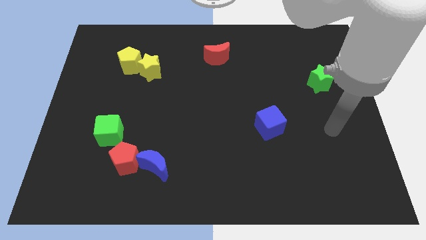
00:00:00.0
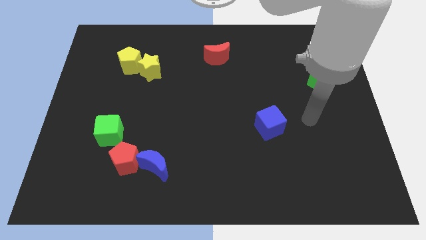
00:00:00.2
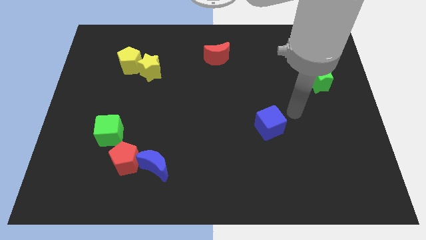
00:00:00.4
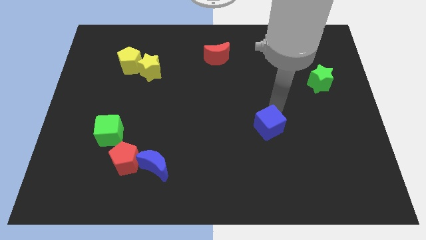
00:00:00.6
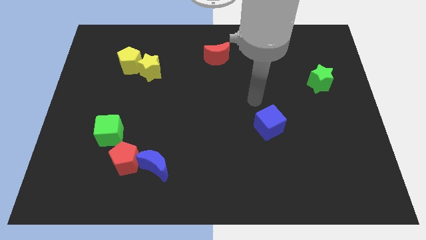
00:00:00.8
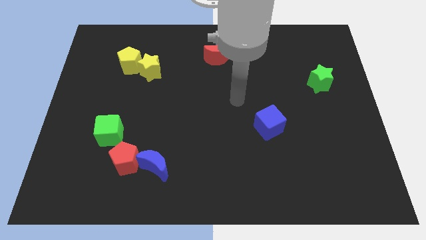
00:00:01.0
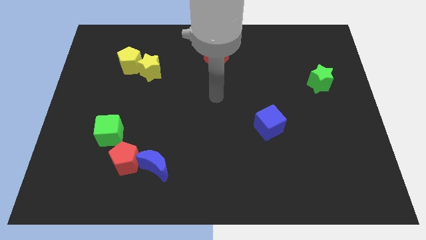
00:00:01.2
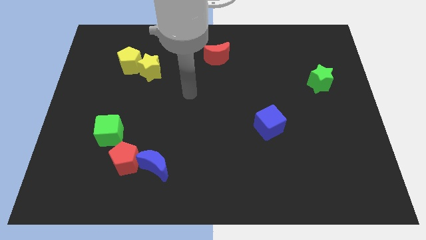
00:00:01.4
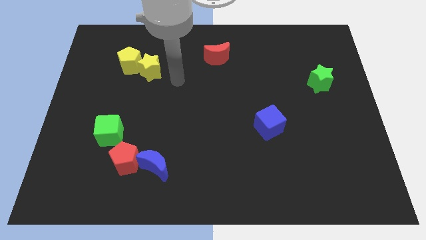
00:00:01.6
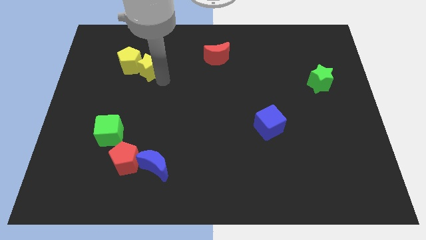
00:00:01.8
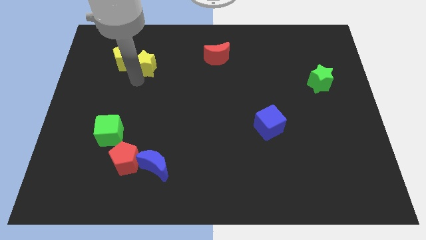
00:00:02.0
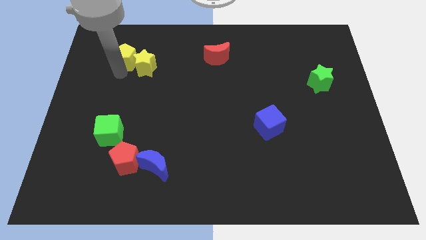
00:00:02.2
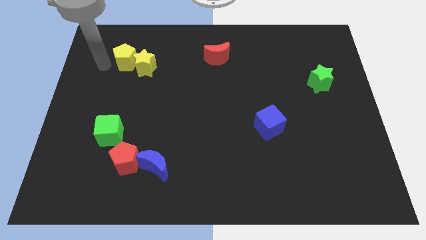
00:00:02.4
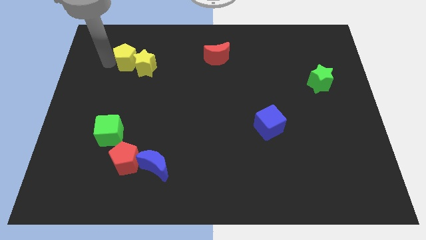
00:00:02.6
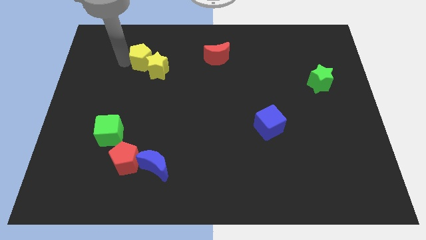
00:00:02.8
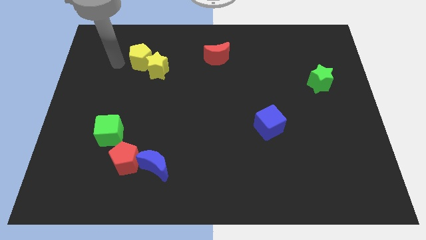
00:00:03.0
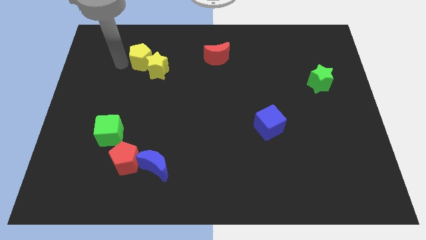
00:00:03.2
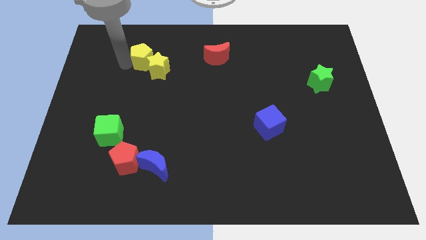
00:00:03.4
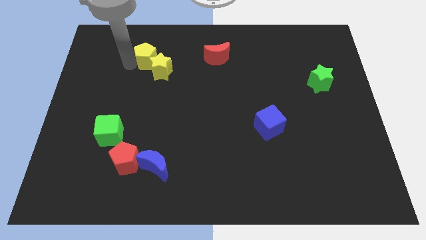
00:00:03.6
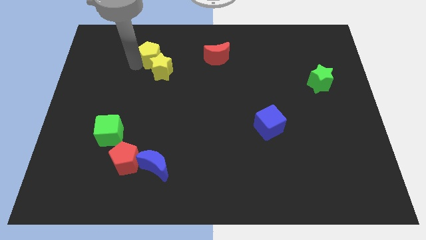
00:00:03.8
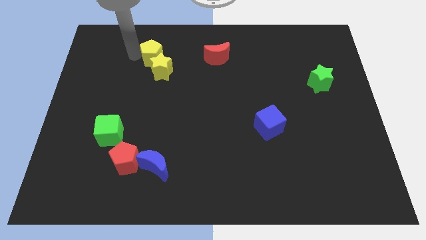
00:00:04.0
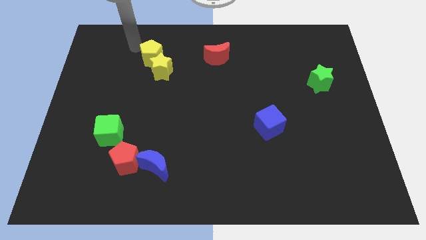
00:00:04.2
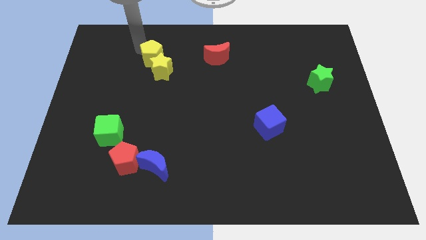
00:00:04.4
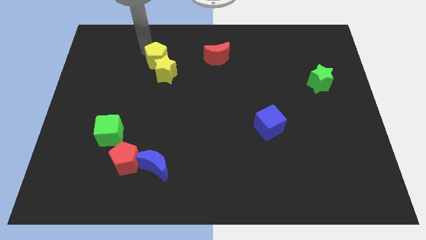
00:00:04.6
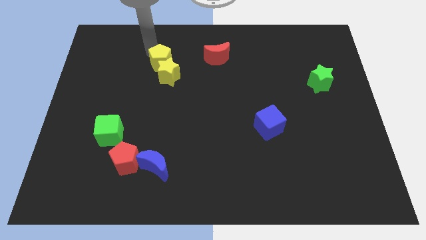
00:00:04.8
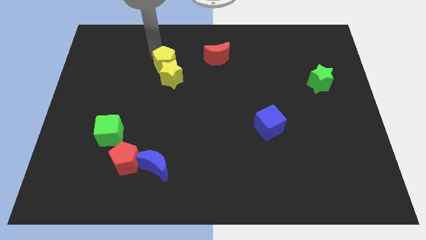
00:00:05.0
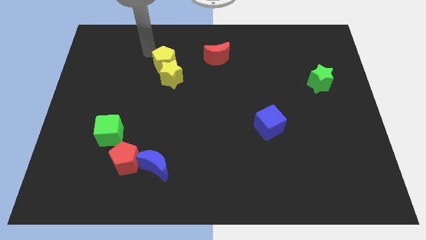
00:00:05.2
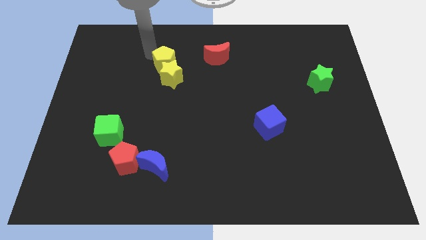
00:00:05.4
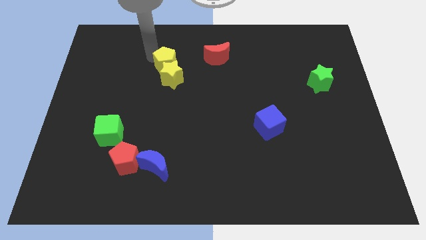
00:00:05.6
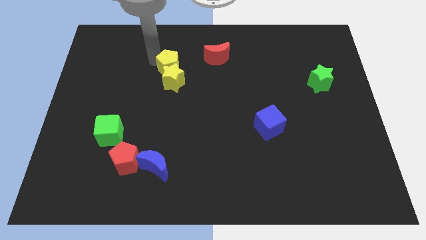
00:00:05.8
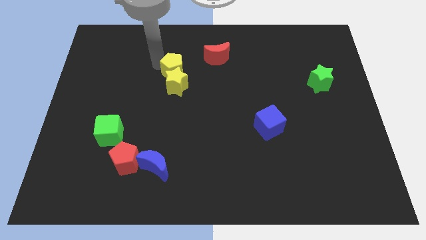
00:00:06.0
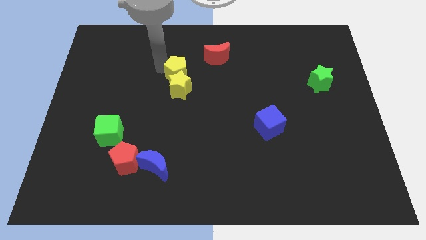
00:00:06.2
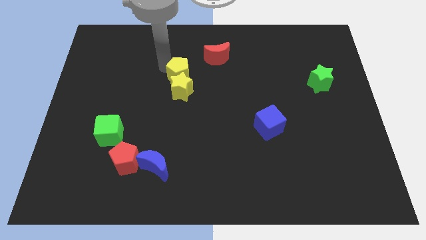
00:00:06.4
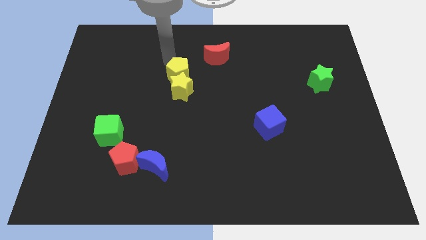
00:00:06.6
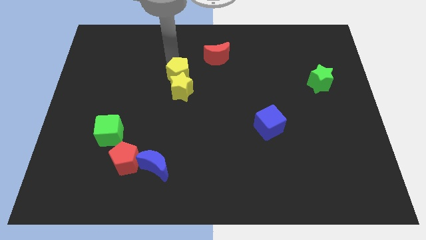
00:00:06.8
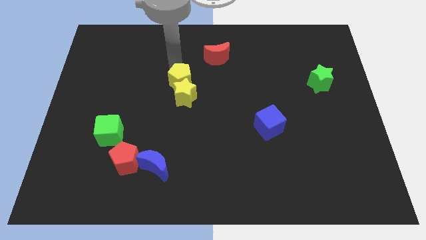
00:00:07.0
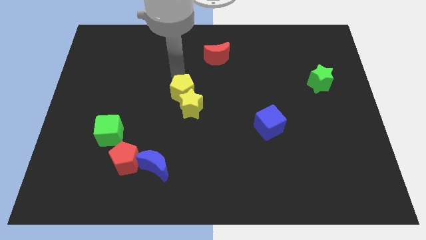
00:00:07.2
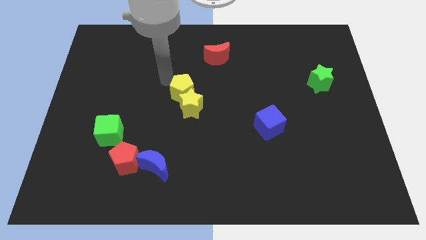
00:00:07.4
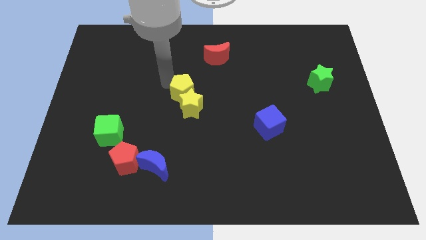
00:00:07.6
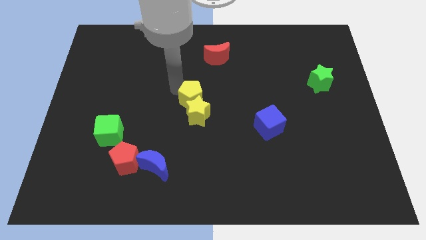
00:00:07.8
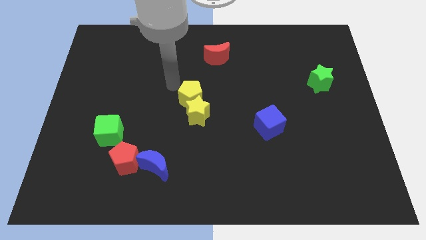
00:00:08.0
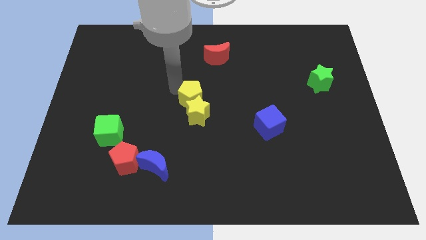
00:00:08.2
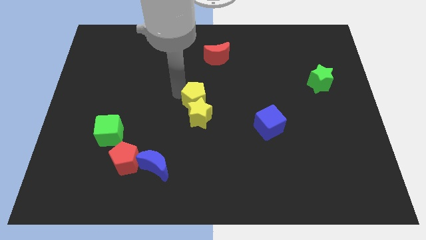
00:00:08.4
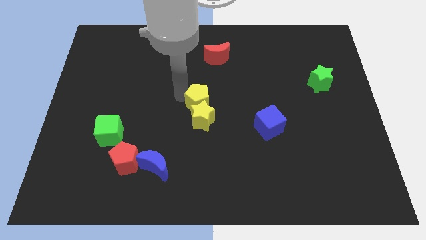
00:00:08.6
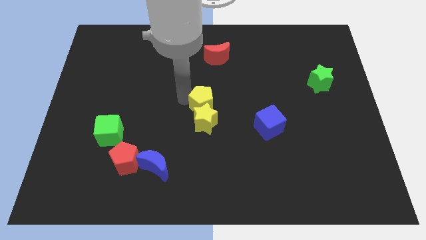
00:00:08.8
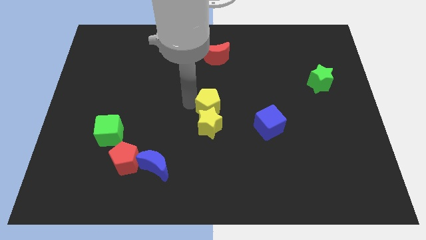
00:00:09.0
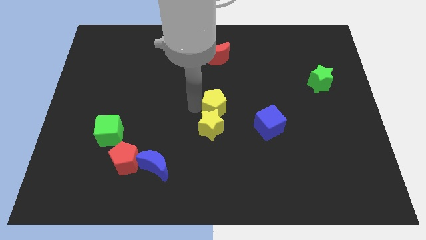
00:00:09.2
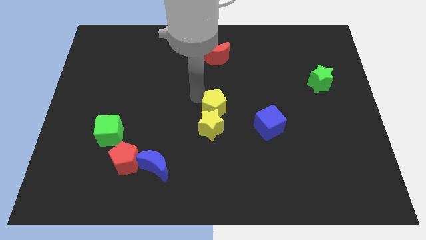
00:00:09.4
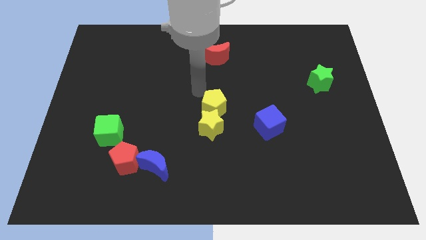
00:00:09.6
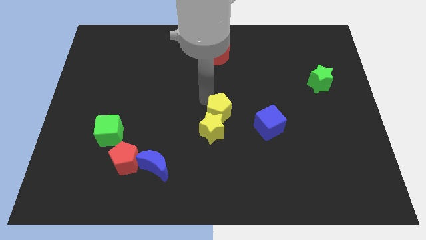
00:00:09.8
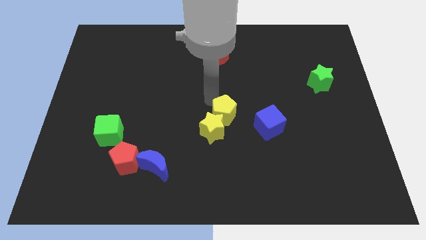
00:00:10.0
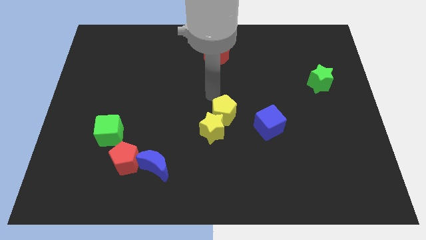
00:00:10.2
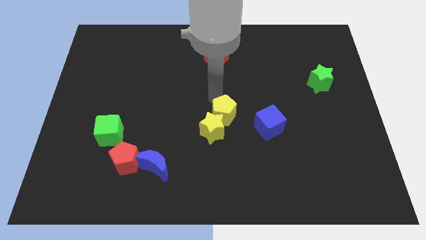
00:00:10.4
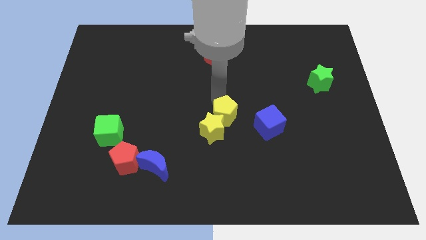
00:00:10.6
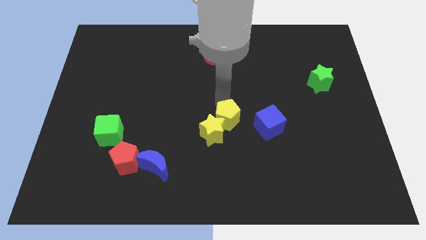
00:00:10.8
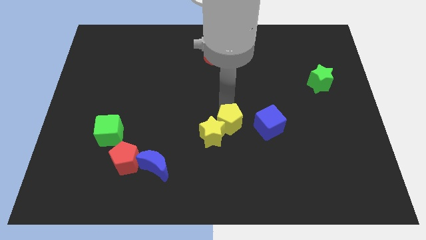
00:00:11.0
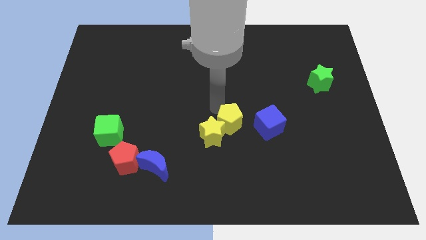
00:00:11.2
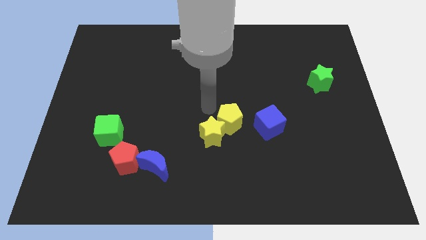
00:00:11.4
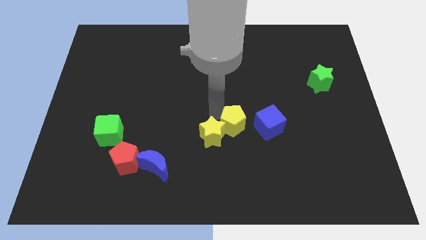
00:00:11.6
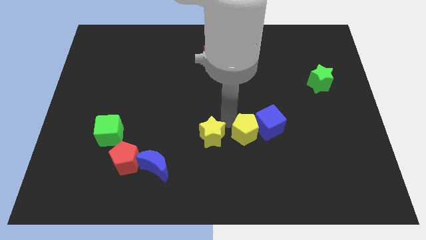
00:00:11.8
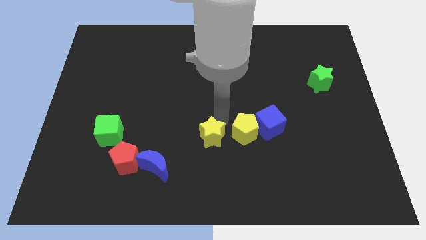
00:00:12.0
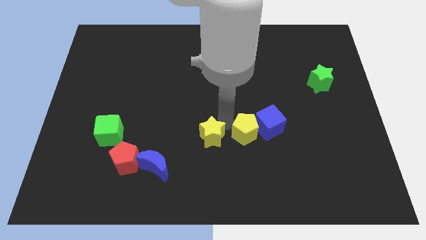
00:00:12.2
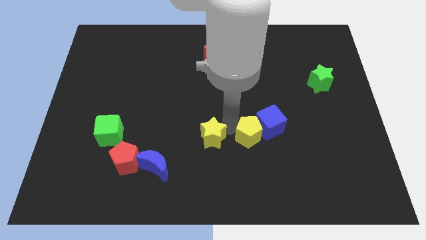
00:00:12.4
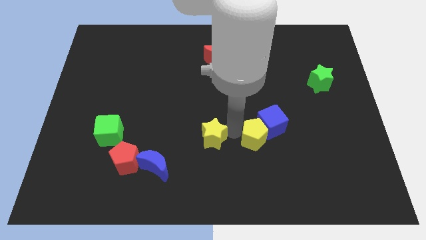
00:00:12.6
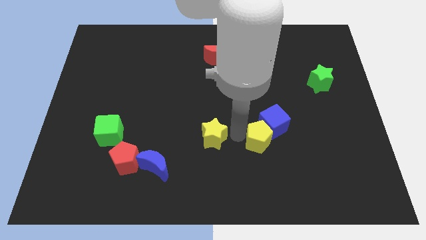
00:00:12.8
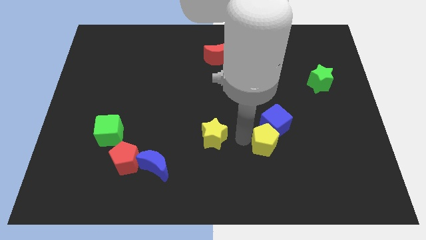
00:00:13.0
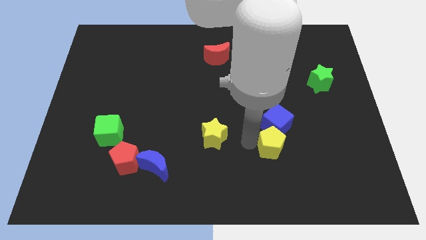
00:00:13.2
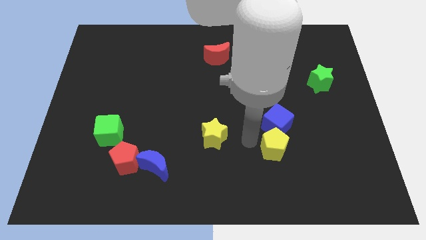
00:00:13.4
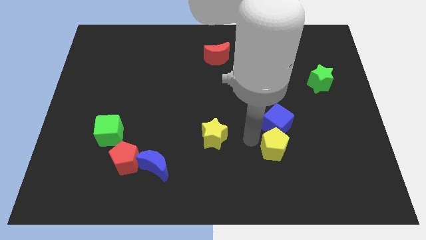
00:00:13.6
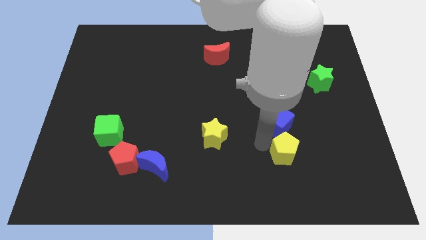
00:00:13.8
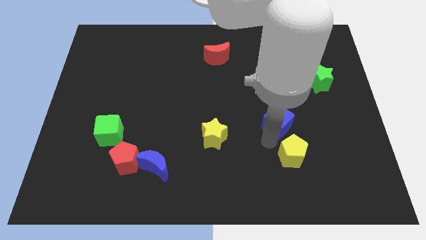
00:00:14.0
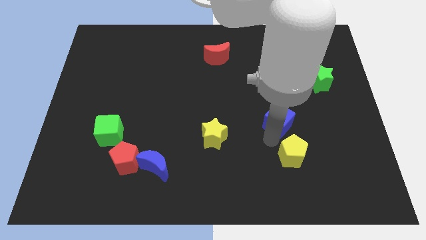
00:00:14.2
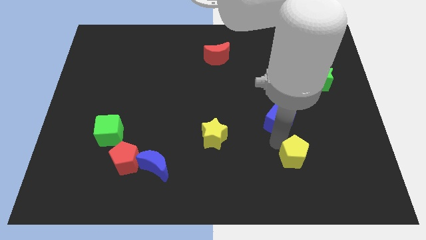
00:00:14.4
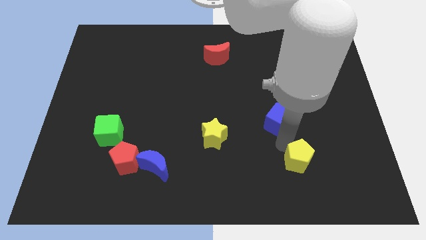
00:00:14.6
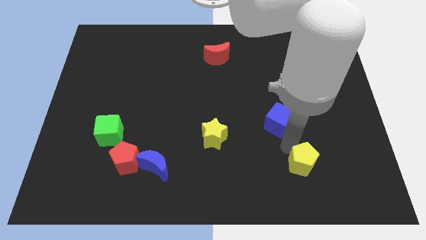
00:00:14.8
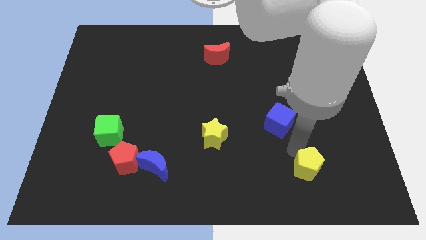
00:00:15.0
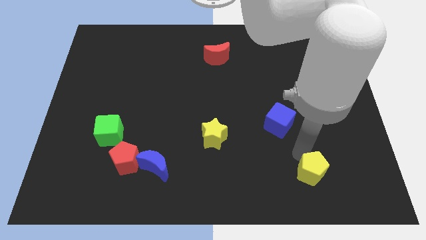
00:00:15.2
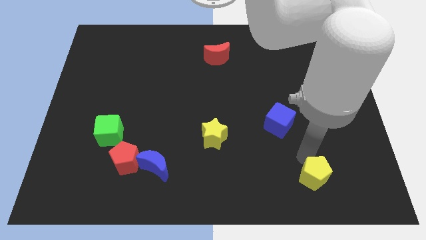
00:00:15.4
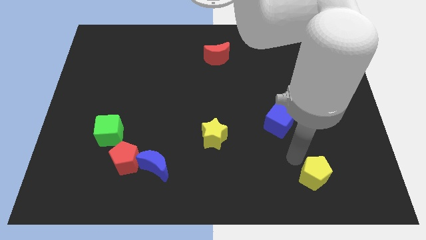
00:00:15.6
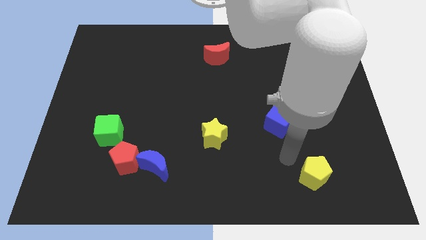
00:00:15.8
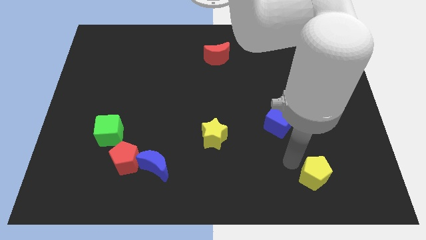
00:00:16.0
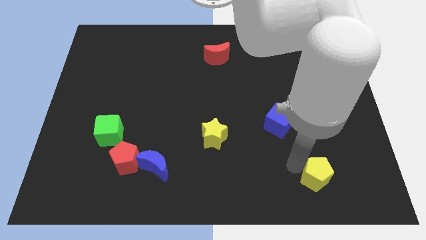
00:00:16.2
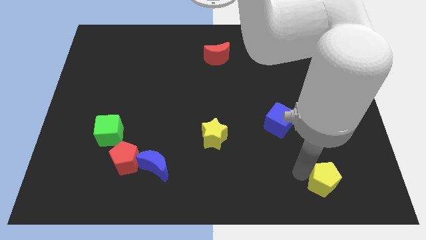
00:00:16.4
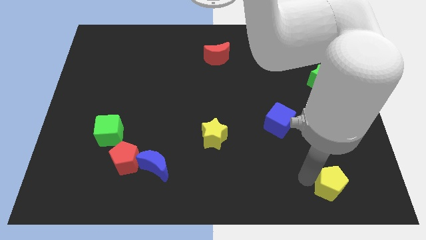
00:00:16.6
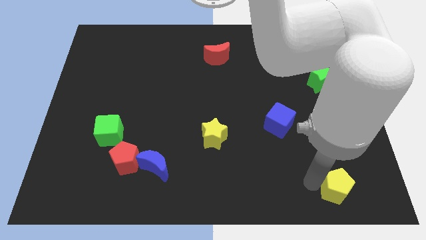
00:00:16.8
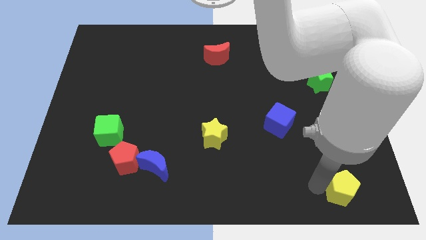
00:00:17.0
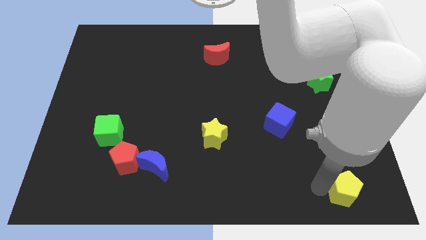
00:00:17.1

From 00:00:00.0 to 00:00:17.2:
slide the yellow pentagon to the bottom right corner
